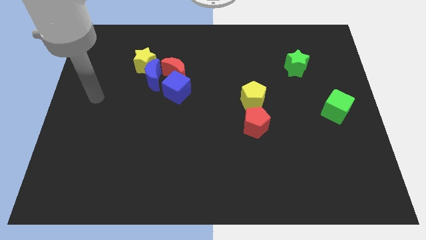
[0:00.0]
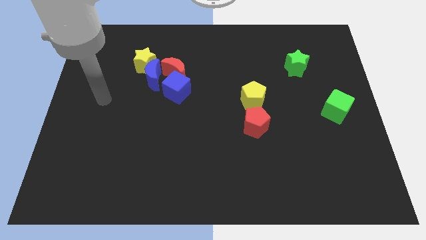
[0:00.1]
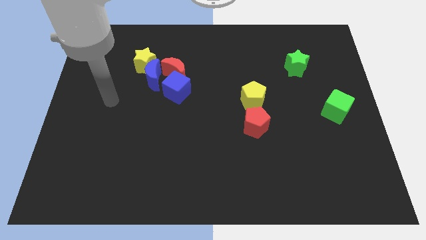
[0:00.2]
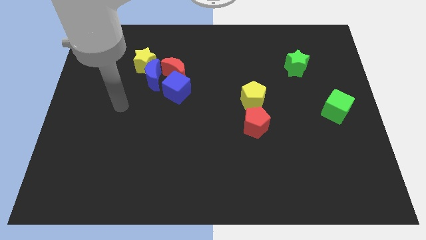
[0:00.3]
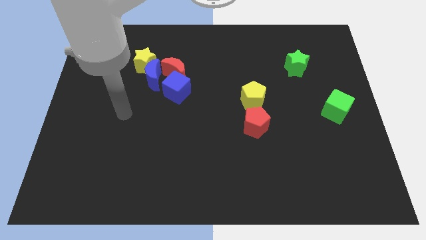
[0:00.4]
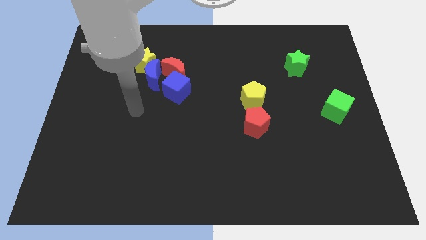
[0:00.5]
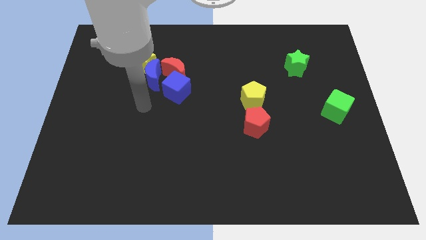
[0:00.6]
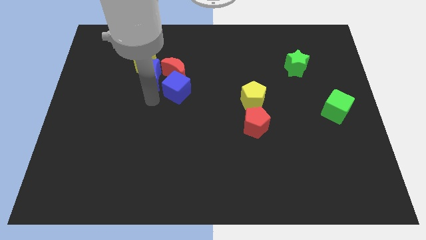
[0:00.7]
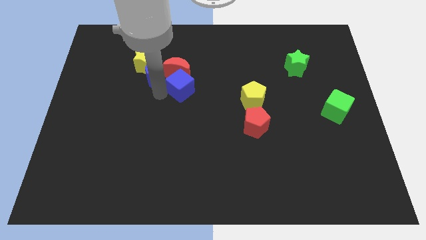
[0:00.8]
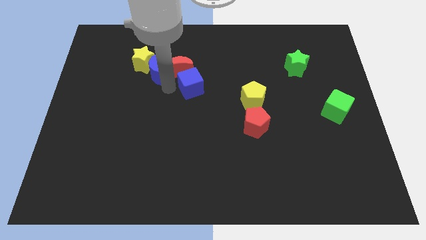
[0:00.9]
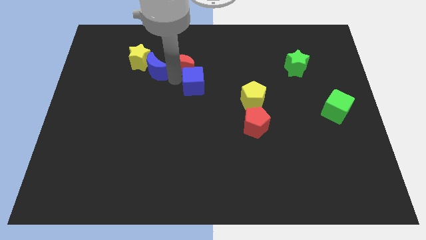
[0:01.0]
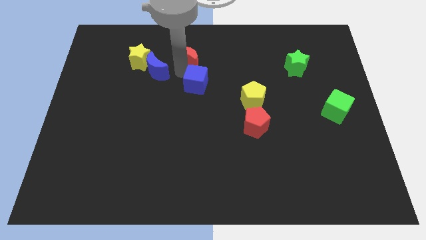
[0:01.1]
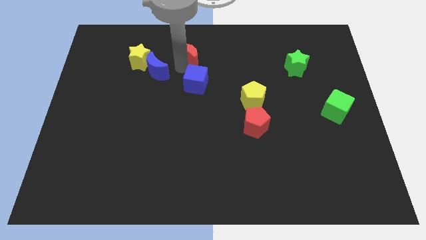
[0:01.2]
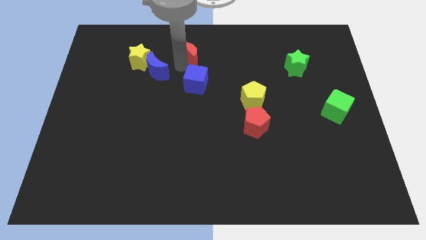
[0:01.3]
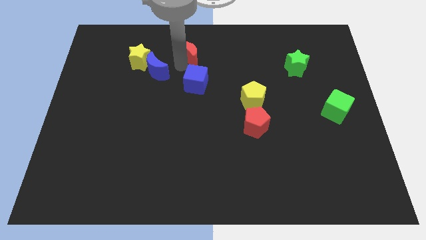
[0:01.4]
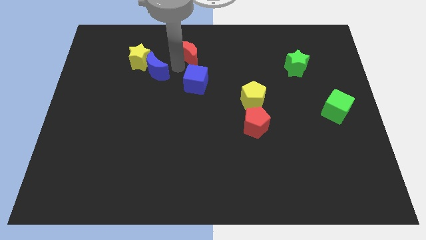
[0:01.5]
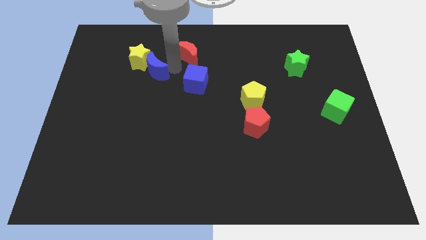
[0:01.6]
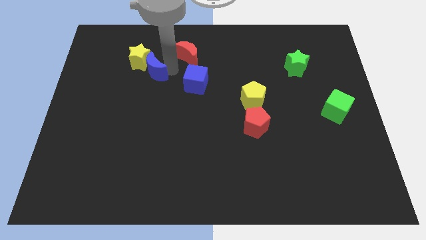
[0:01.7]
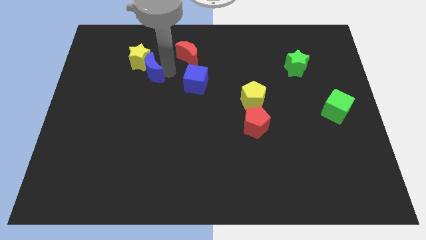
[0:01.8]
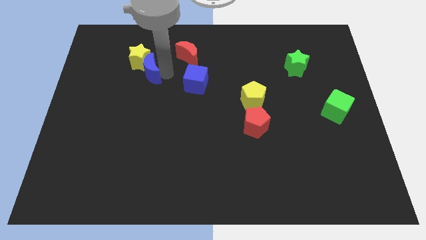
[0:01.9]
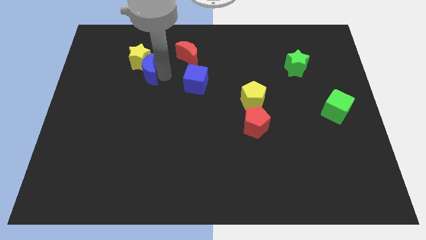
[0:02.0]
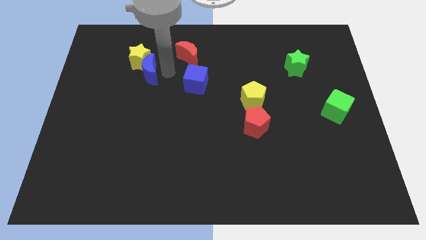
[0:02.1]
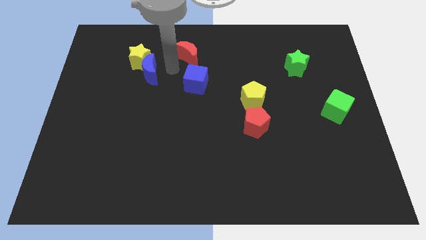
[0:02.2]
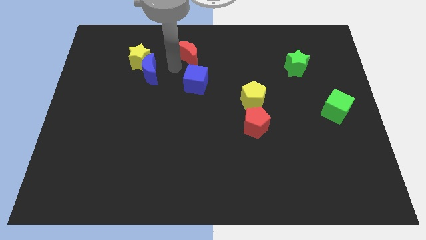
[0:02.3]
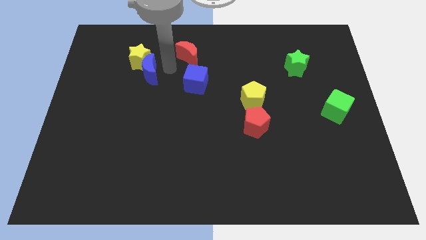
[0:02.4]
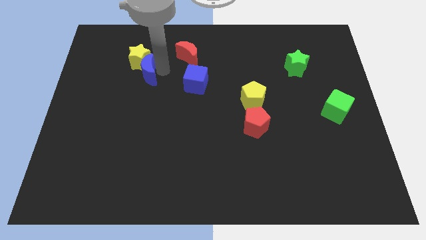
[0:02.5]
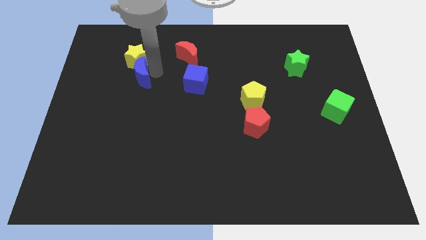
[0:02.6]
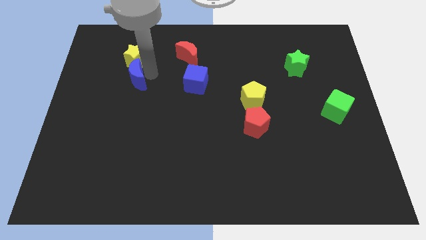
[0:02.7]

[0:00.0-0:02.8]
separate the blue moon from the group

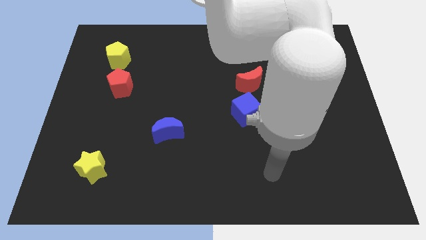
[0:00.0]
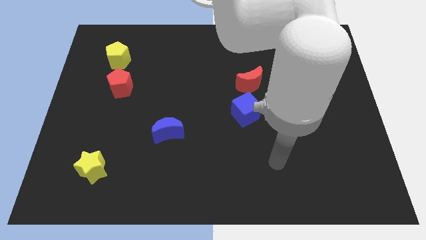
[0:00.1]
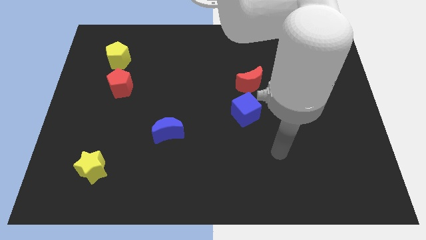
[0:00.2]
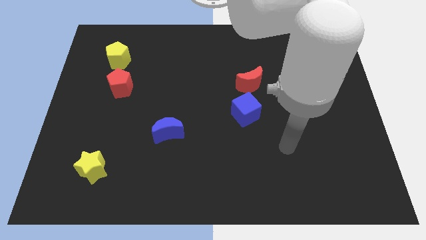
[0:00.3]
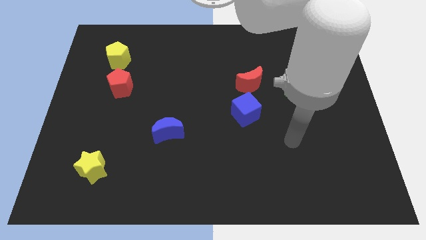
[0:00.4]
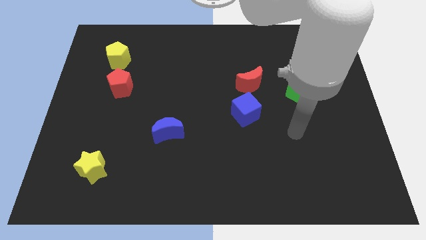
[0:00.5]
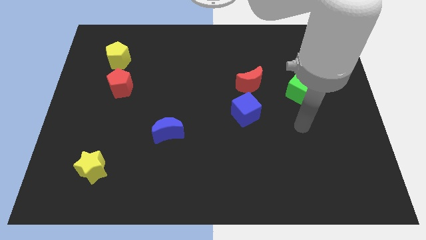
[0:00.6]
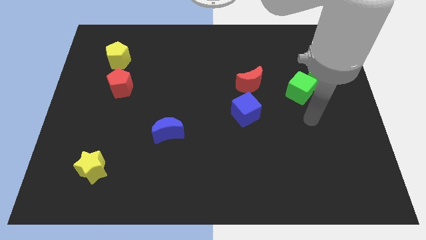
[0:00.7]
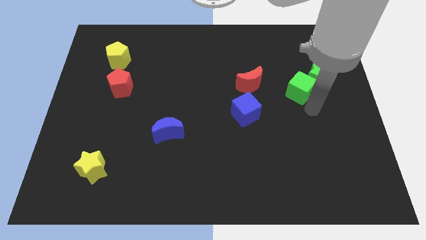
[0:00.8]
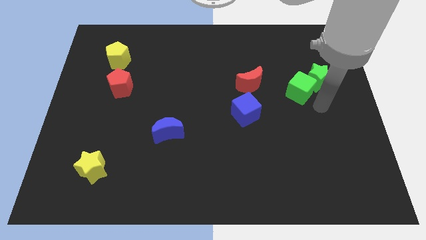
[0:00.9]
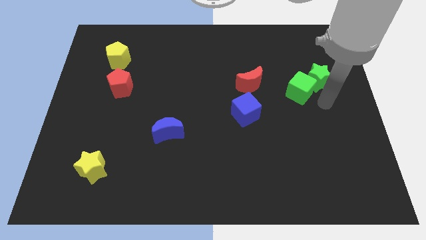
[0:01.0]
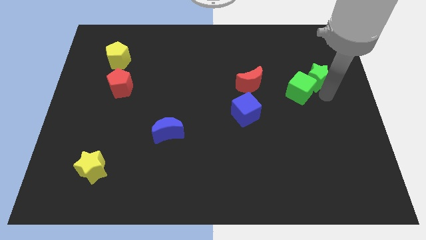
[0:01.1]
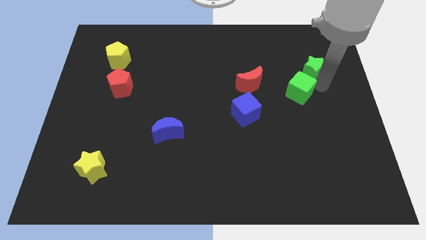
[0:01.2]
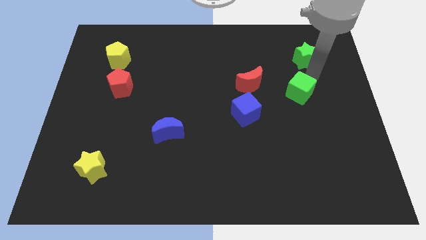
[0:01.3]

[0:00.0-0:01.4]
pull the green cube apart from the green star

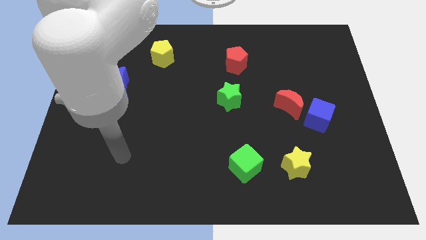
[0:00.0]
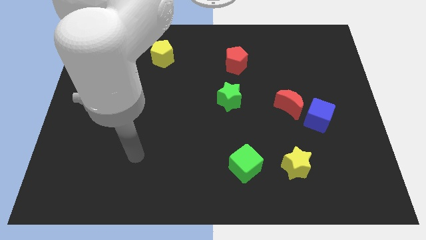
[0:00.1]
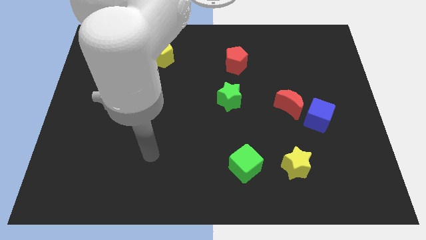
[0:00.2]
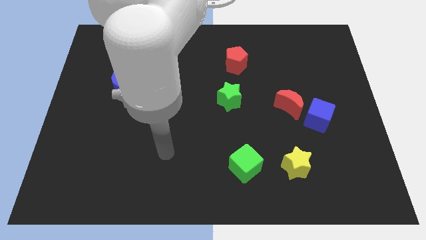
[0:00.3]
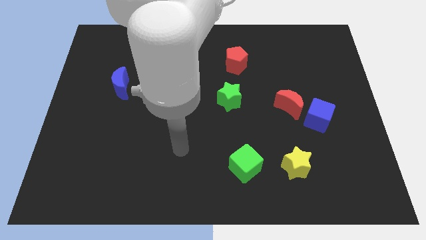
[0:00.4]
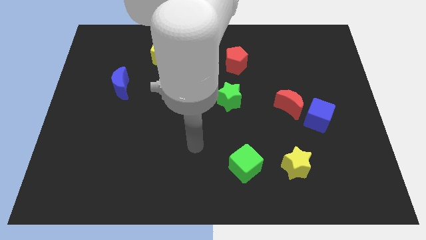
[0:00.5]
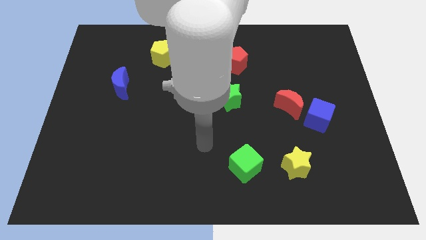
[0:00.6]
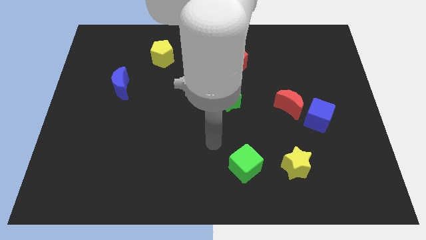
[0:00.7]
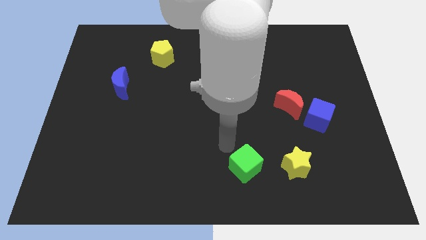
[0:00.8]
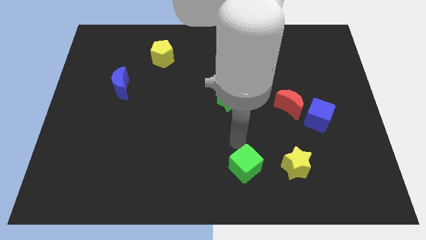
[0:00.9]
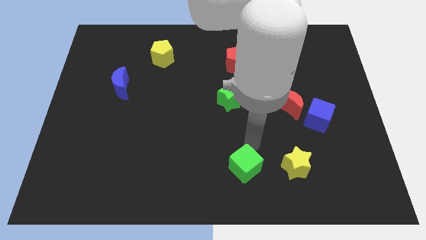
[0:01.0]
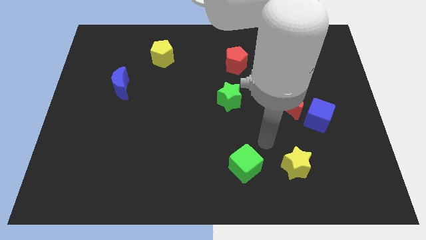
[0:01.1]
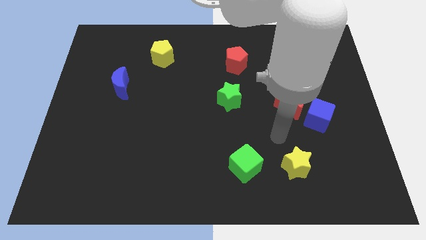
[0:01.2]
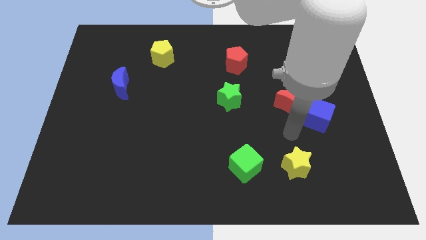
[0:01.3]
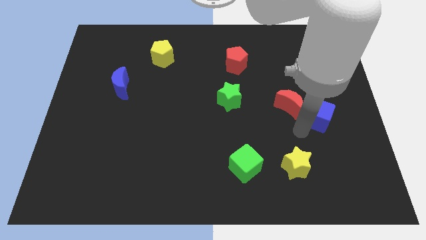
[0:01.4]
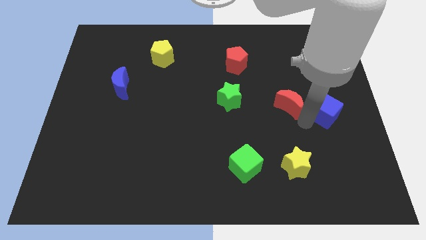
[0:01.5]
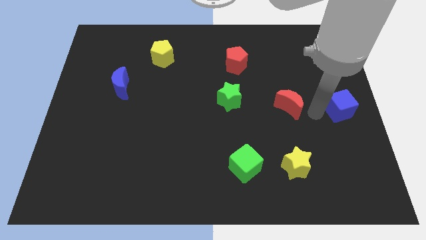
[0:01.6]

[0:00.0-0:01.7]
separate the red moon from the blue cube

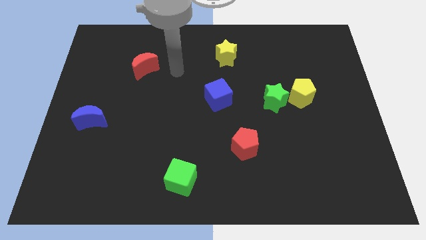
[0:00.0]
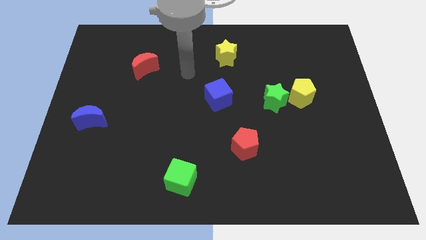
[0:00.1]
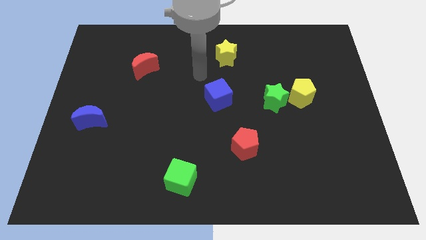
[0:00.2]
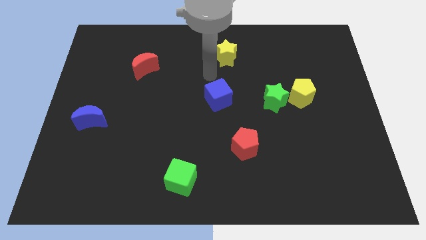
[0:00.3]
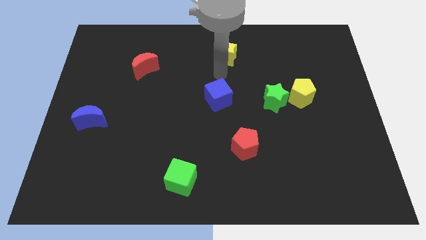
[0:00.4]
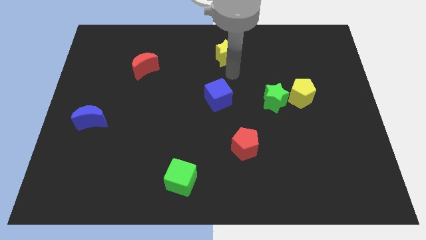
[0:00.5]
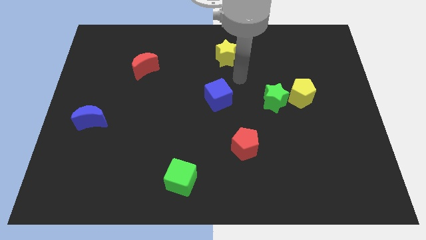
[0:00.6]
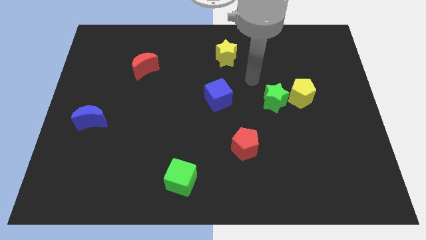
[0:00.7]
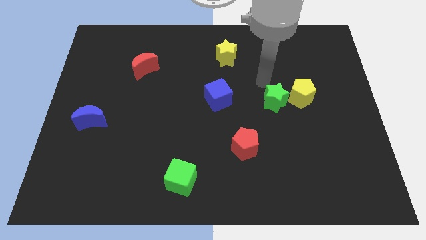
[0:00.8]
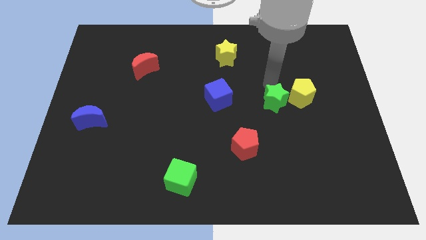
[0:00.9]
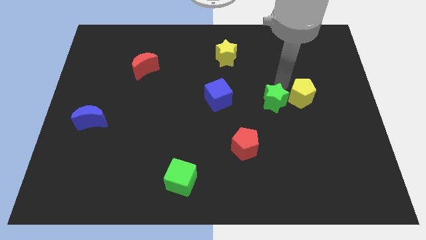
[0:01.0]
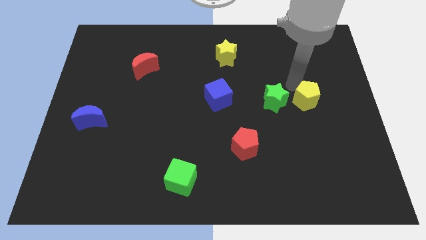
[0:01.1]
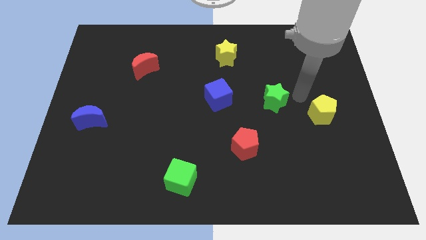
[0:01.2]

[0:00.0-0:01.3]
pull the green star apart from the yellow pentagon

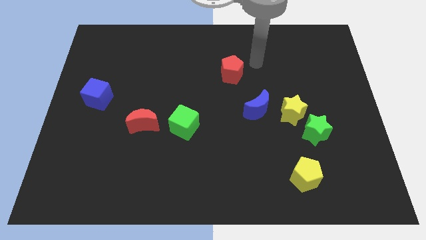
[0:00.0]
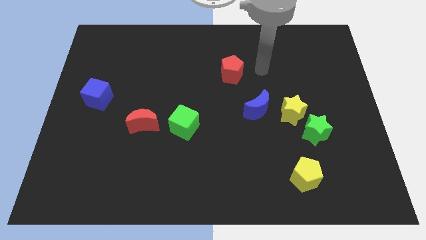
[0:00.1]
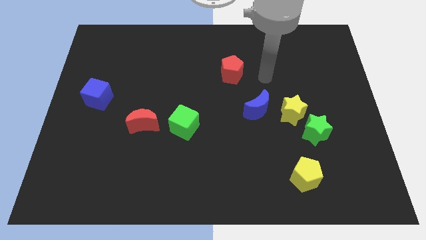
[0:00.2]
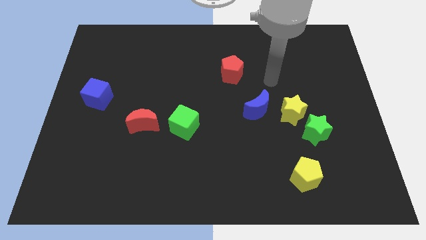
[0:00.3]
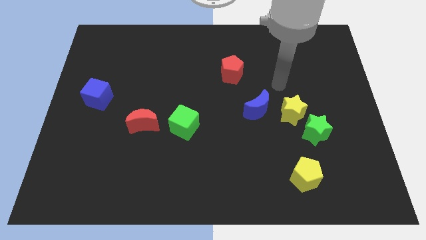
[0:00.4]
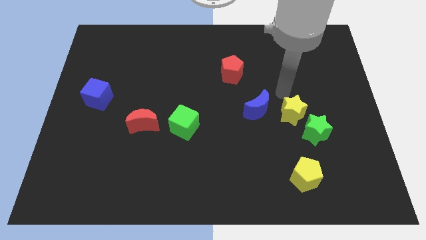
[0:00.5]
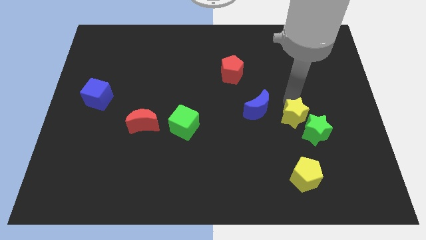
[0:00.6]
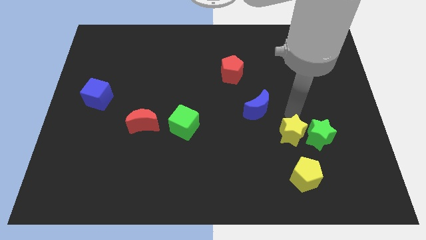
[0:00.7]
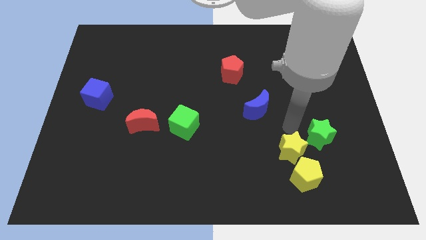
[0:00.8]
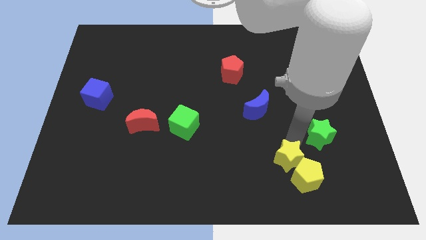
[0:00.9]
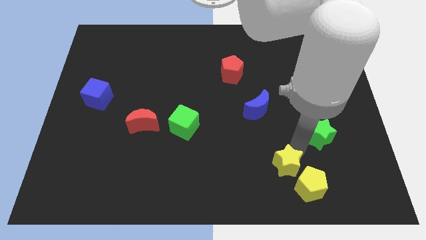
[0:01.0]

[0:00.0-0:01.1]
separate the green star from the yellow star

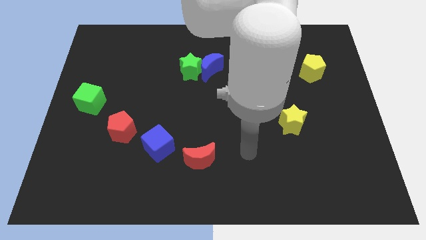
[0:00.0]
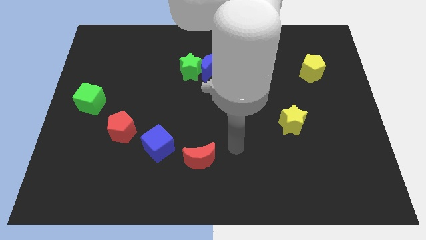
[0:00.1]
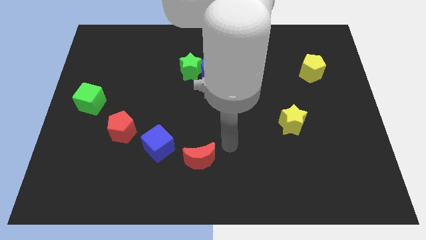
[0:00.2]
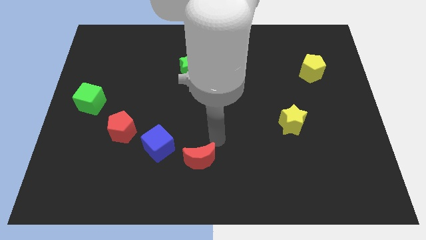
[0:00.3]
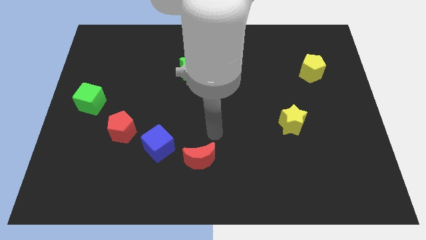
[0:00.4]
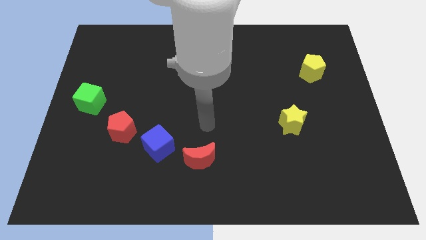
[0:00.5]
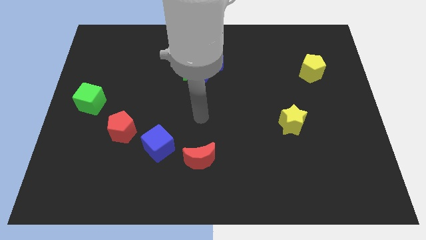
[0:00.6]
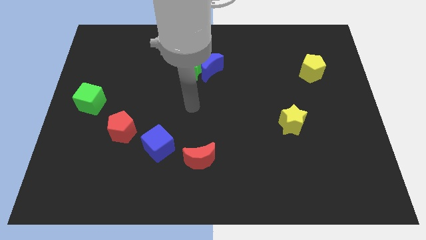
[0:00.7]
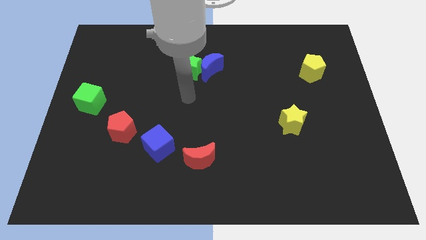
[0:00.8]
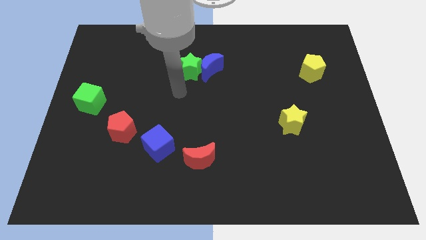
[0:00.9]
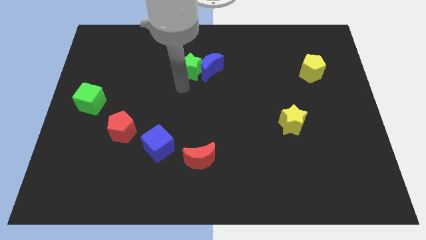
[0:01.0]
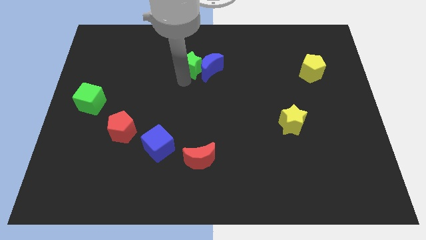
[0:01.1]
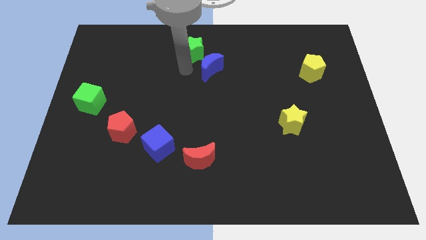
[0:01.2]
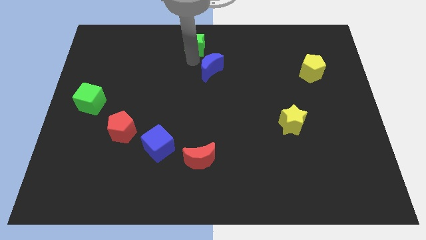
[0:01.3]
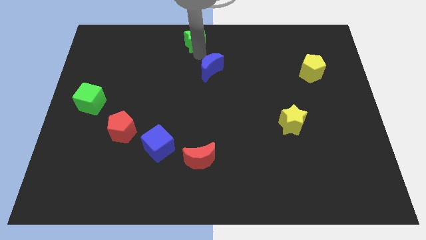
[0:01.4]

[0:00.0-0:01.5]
move the blue moon away from the green star
